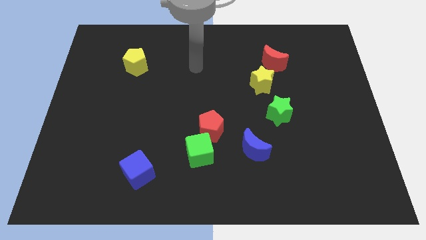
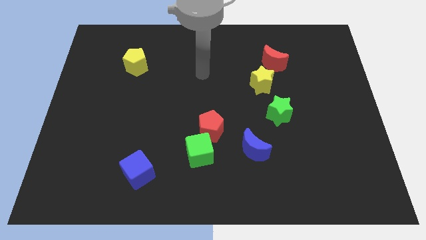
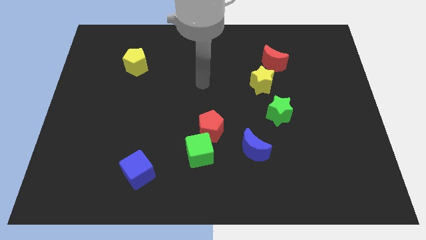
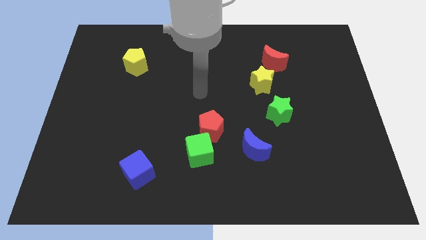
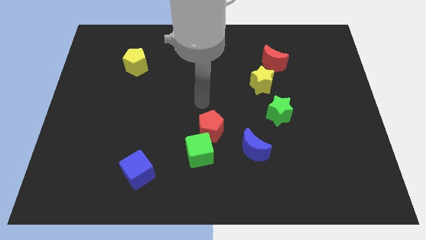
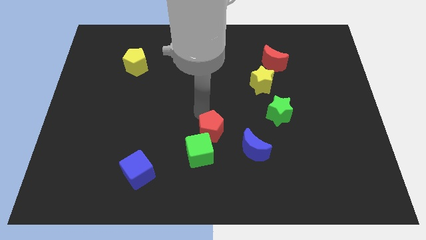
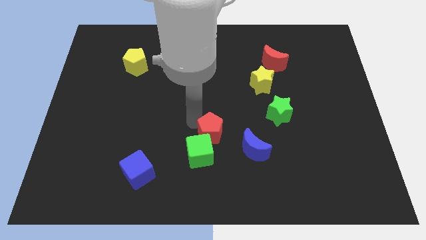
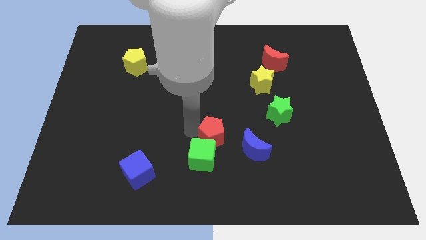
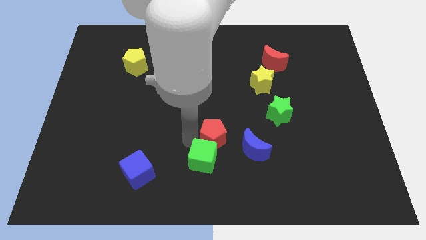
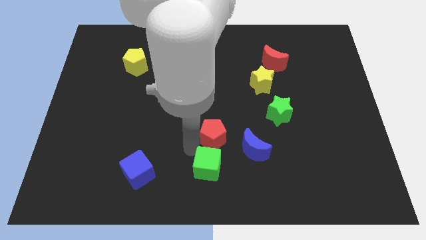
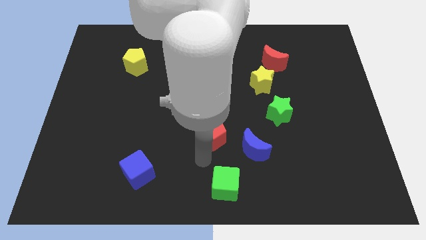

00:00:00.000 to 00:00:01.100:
pull the red pentagon apart from the green cube

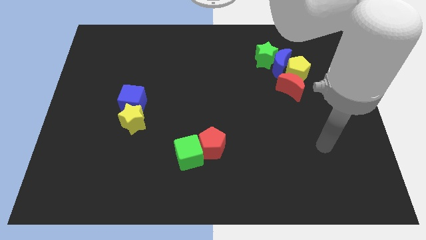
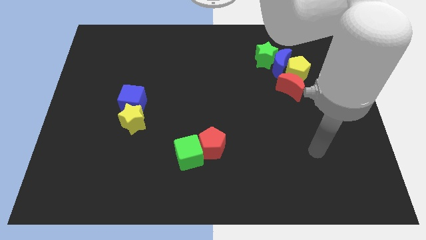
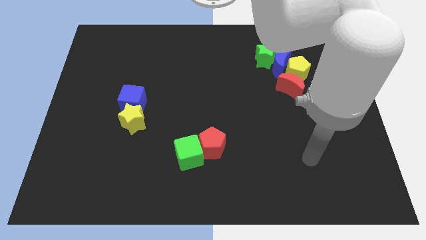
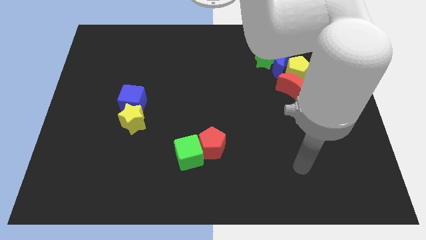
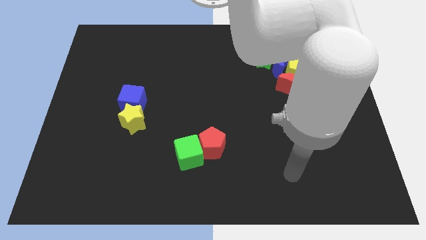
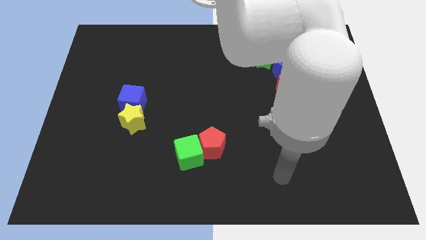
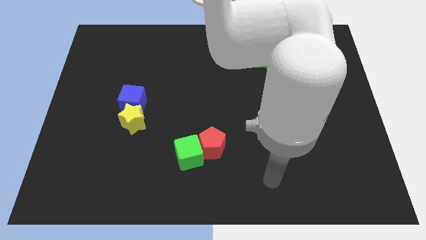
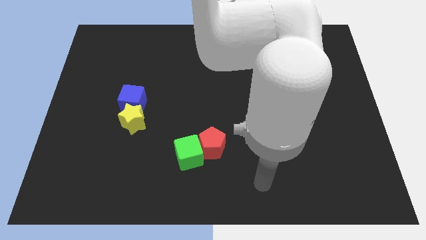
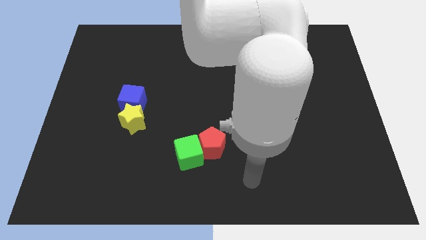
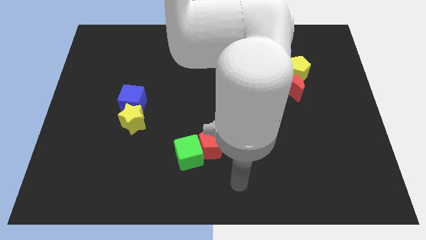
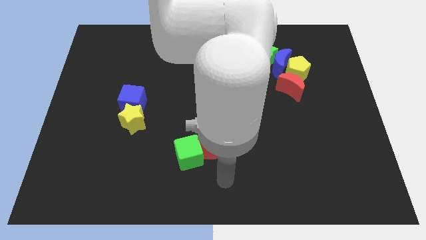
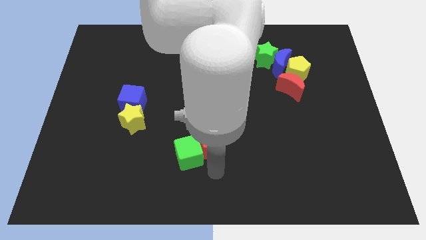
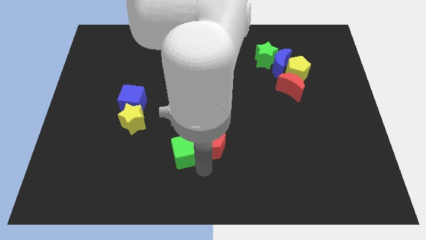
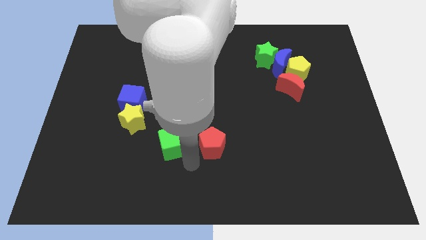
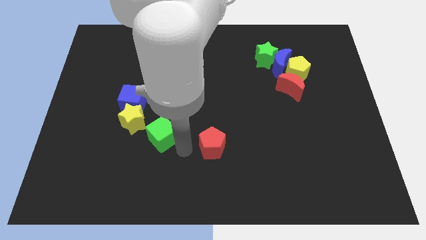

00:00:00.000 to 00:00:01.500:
separate the red pentagon from the green cube

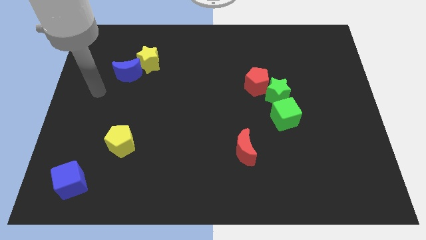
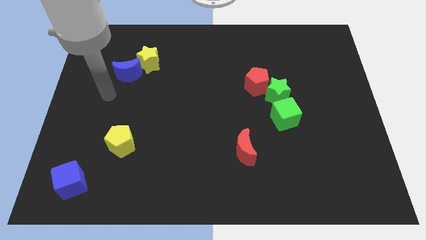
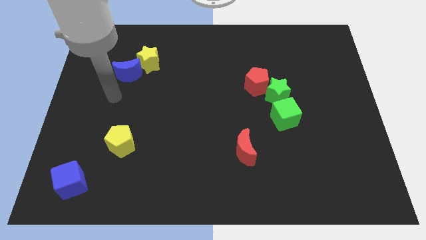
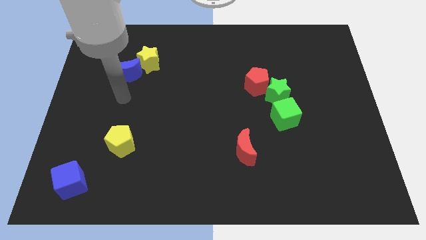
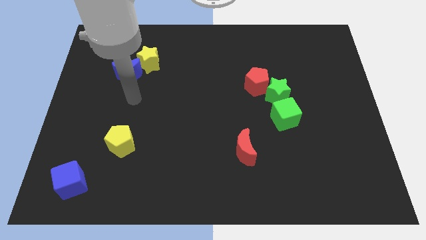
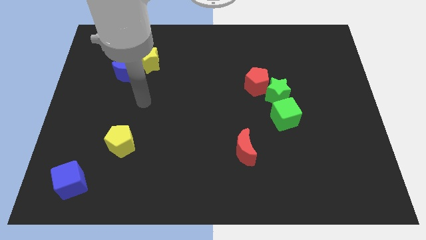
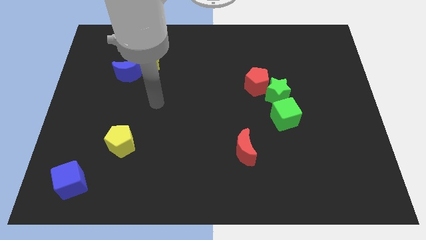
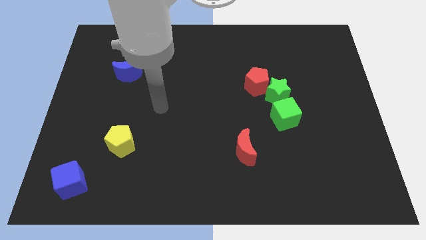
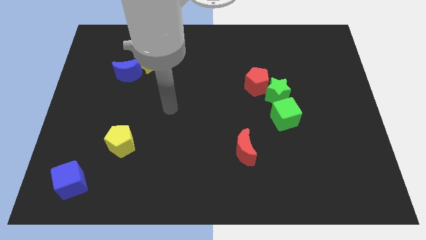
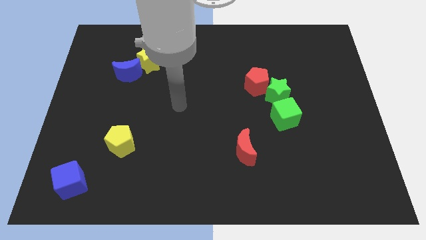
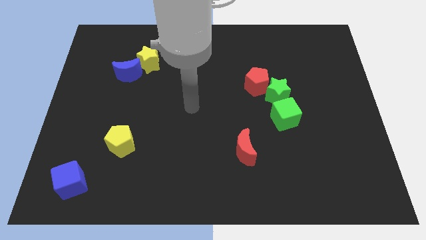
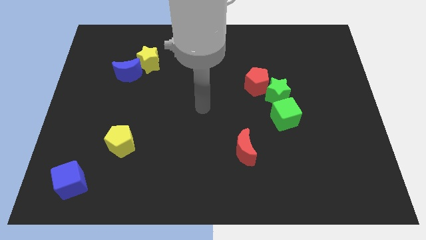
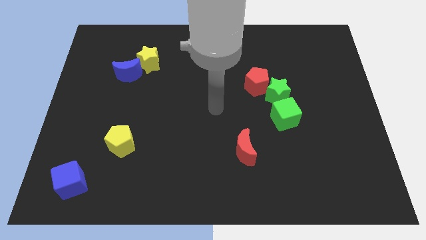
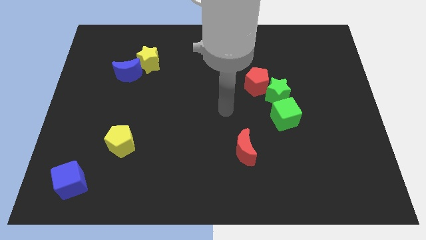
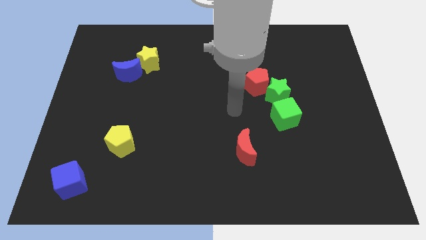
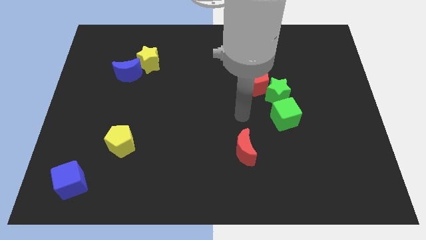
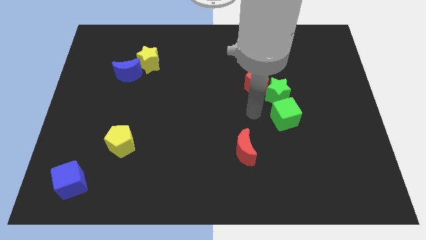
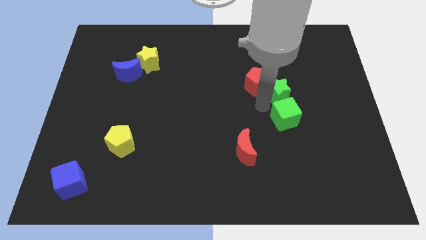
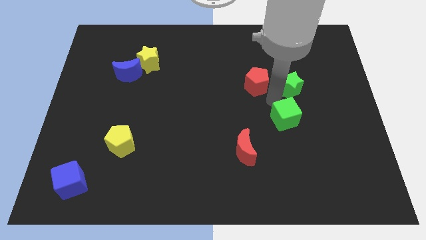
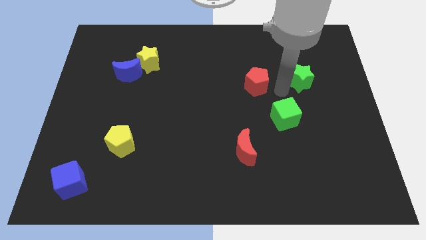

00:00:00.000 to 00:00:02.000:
separate the red pentagon from the green star

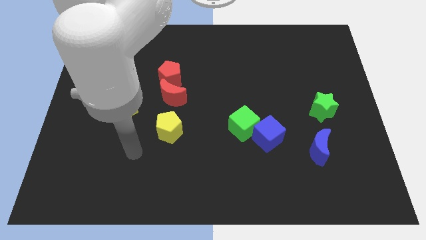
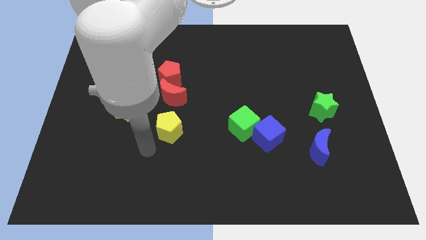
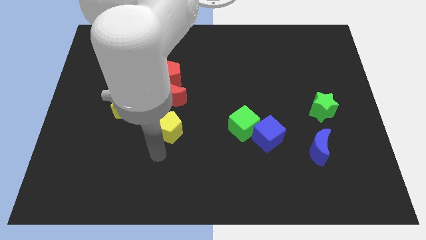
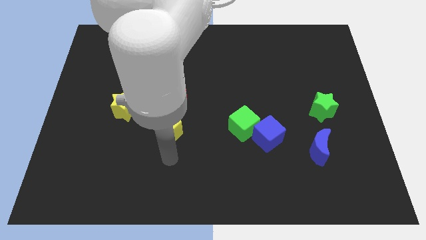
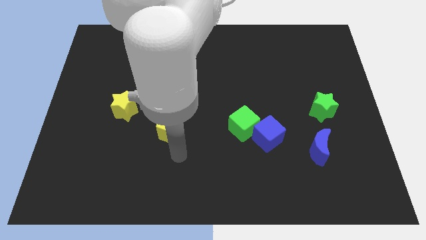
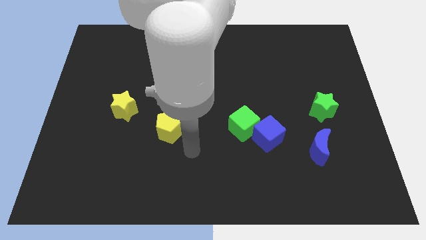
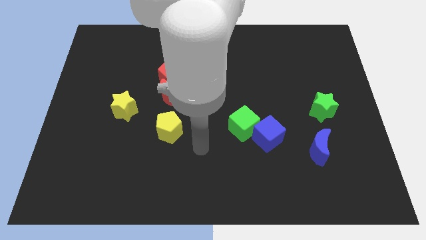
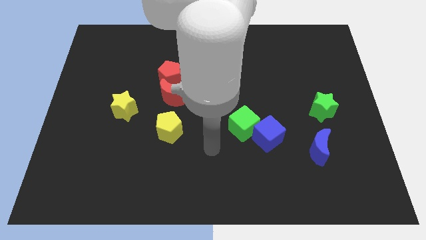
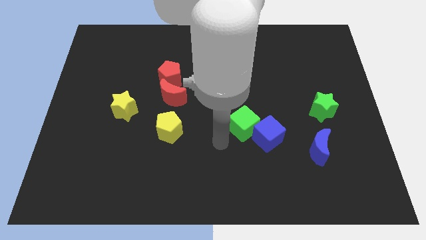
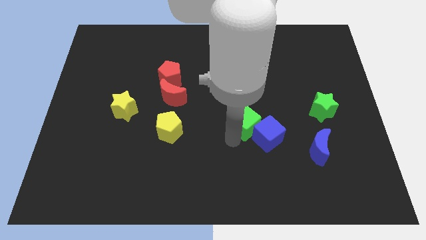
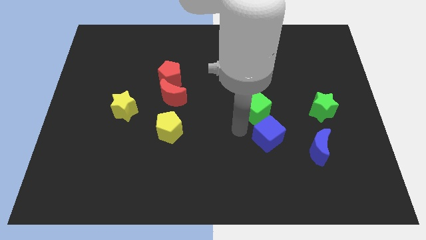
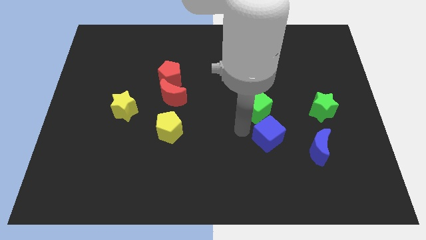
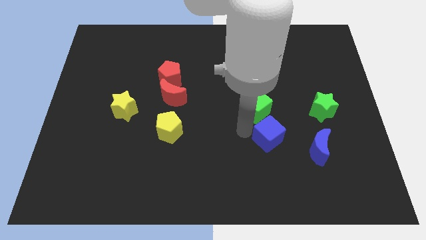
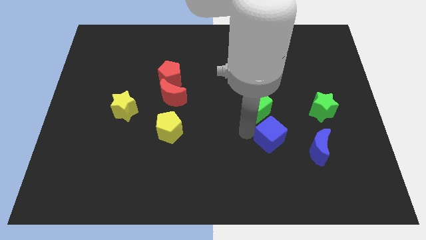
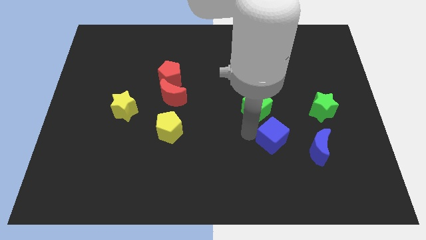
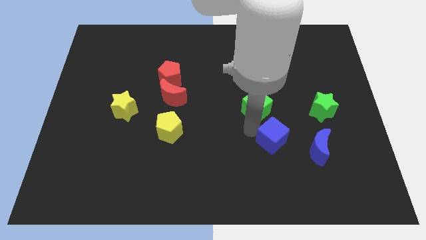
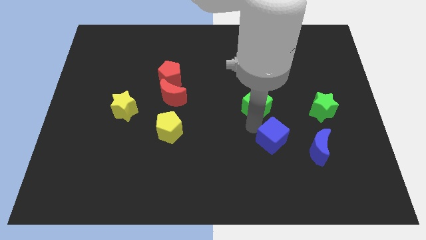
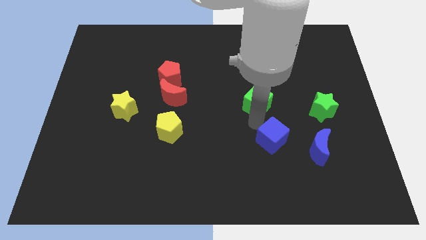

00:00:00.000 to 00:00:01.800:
separate the blue cube from the green cube

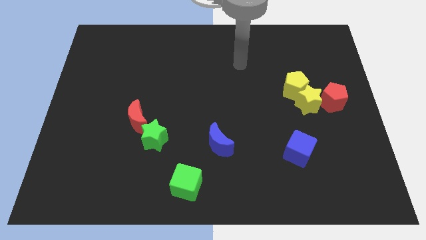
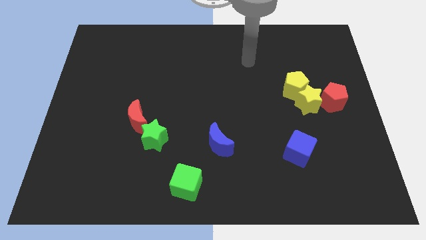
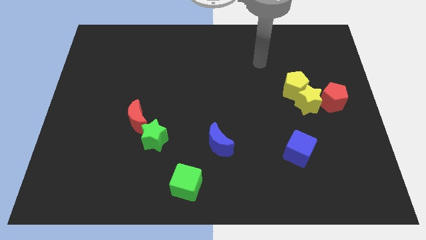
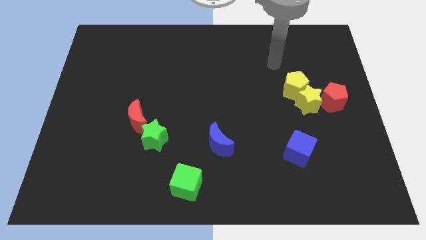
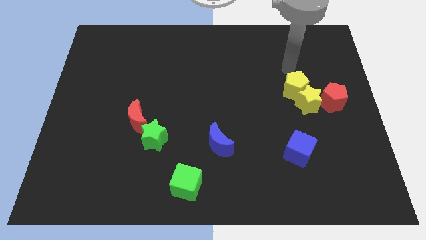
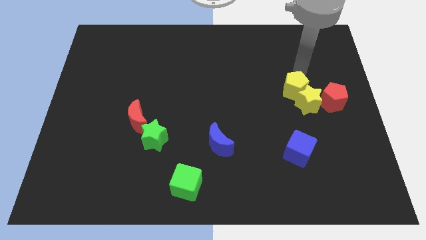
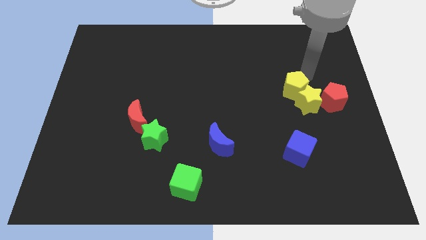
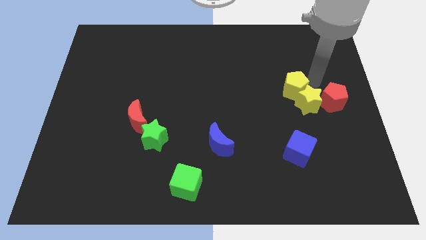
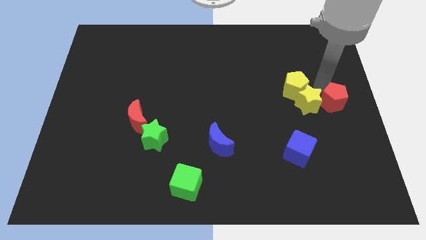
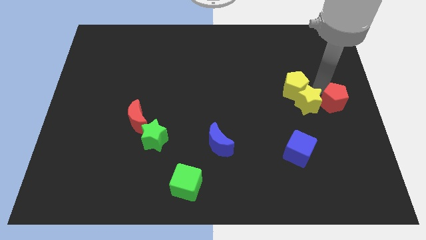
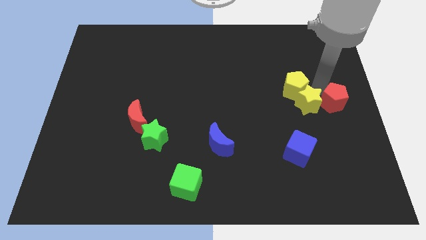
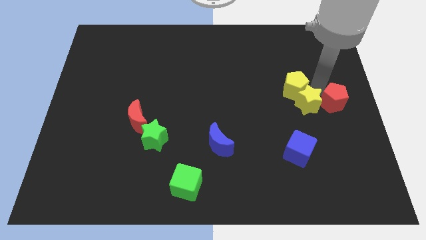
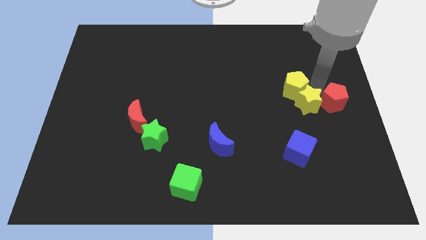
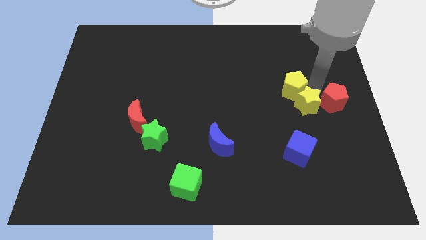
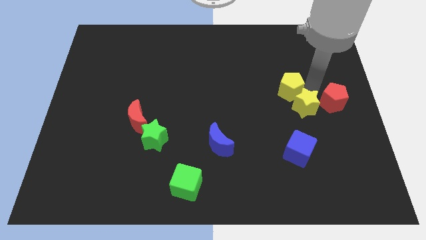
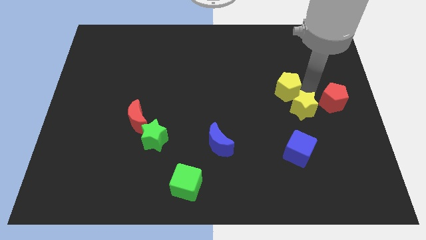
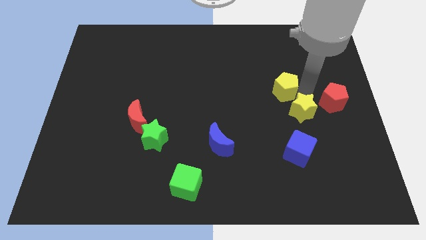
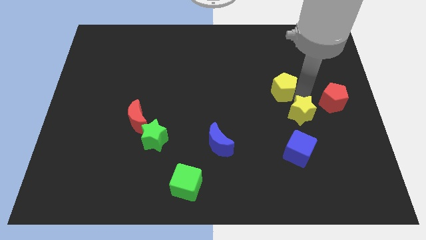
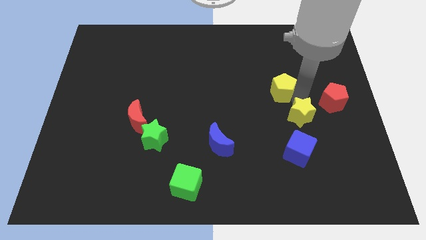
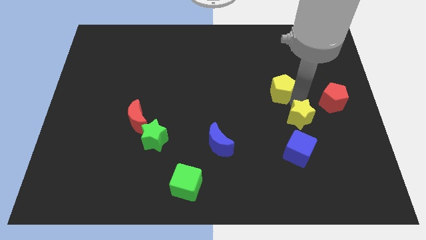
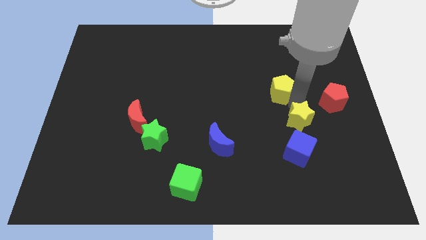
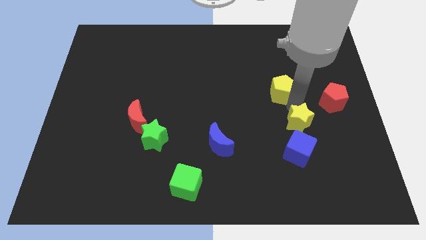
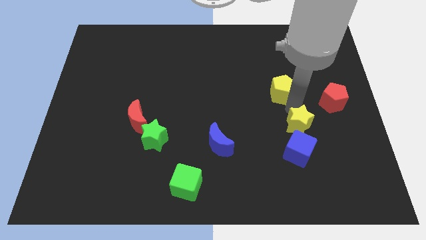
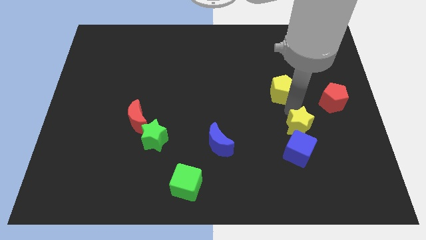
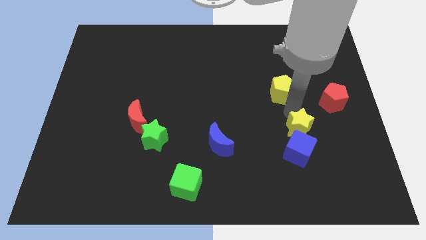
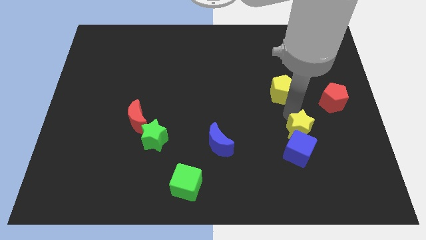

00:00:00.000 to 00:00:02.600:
pull the yellow star apart from the yellow pentagon and red pentagon

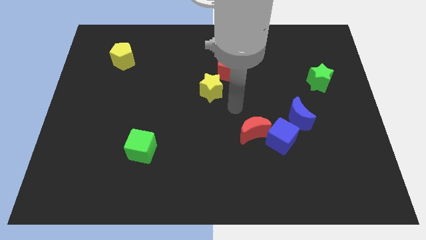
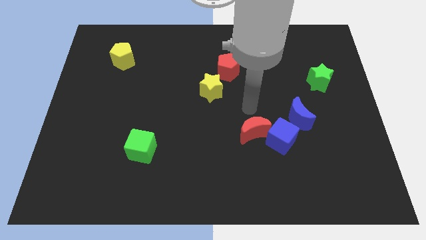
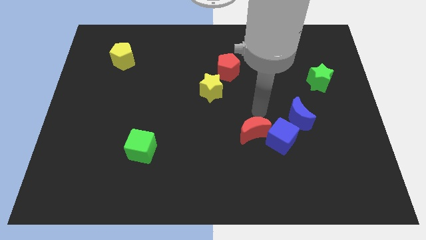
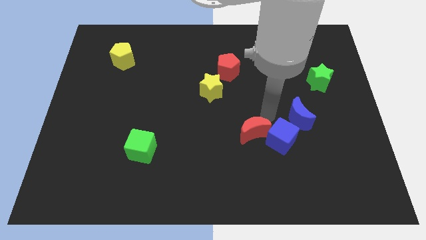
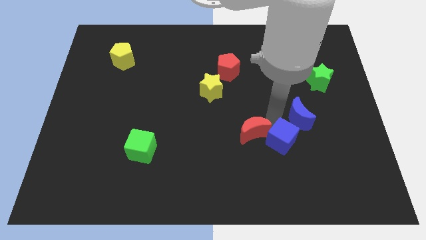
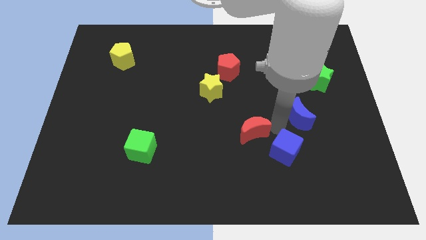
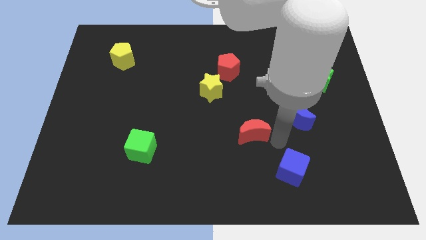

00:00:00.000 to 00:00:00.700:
pull the red moon apart from the blue cube
